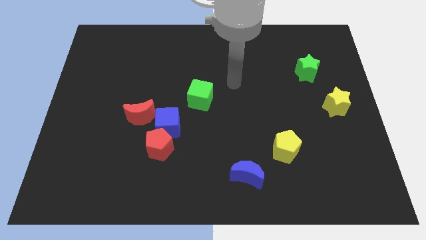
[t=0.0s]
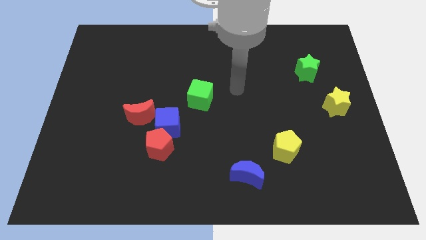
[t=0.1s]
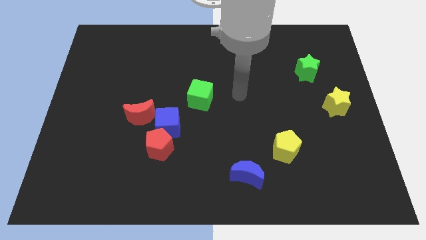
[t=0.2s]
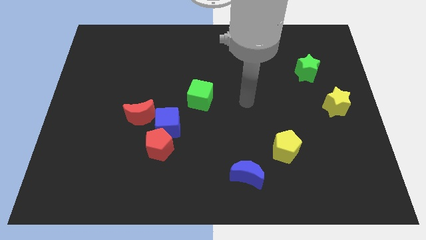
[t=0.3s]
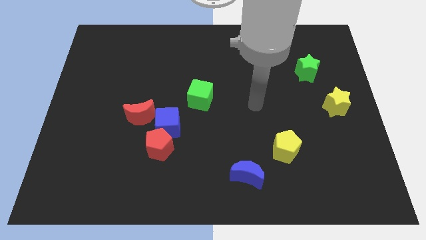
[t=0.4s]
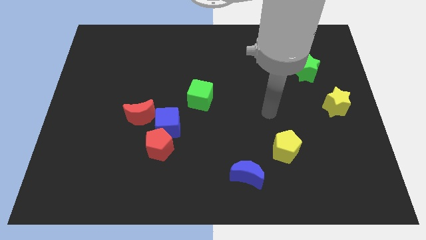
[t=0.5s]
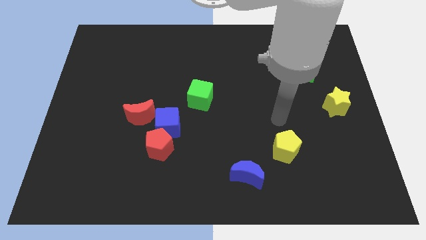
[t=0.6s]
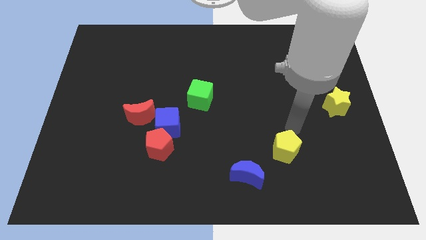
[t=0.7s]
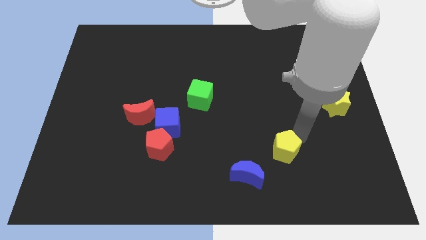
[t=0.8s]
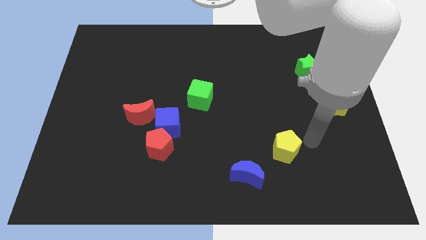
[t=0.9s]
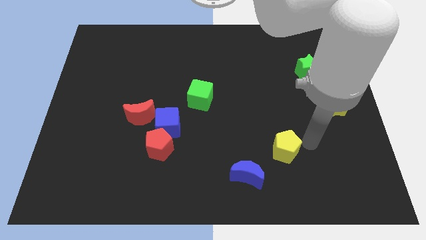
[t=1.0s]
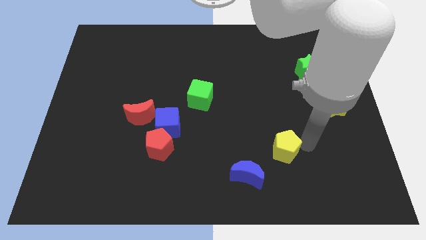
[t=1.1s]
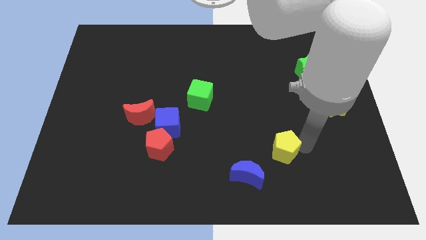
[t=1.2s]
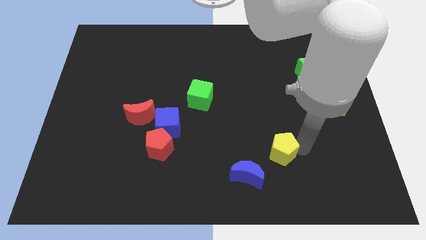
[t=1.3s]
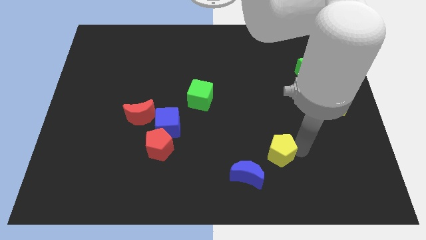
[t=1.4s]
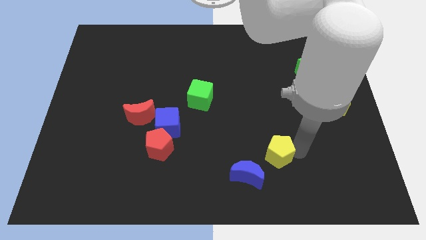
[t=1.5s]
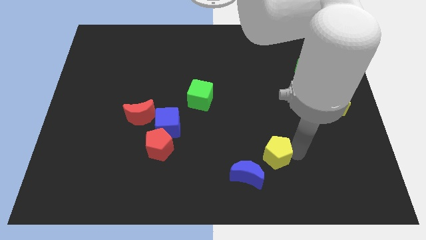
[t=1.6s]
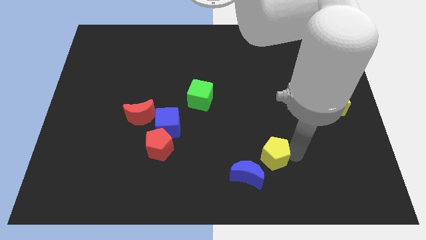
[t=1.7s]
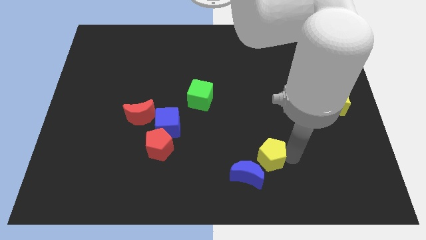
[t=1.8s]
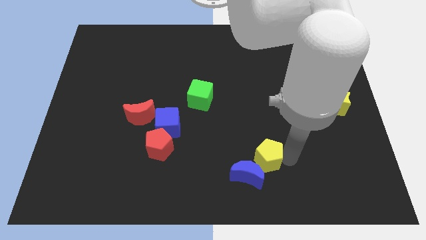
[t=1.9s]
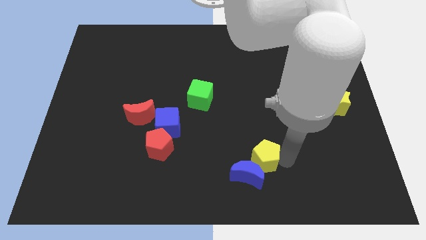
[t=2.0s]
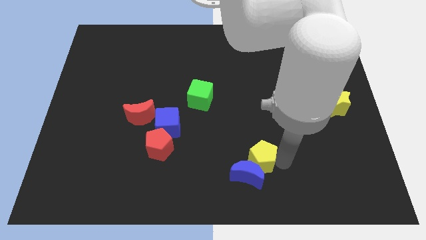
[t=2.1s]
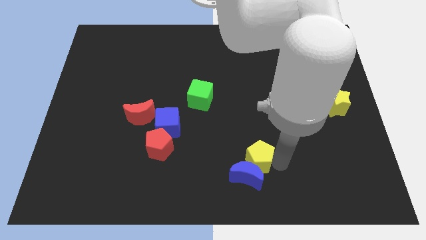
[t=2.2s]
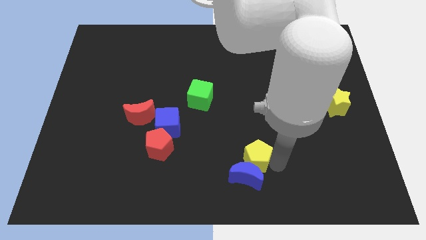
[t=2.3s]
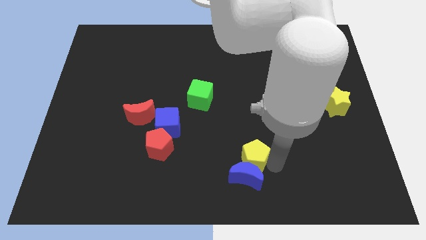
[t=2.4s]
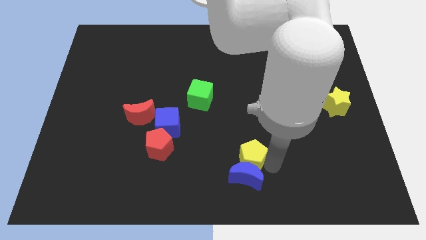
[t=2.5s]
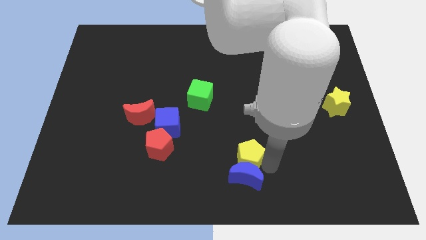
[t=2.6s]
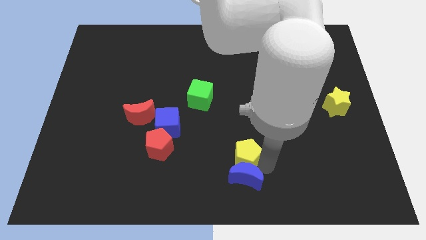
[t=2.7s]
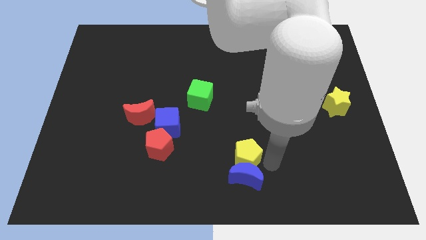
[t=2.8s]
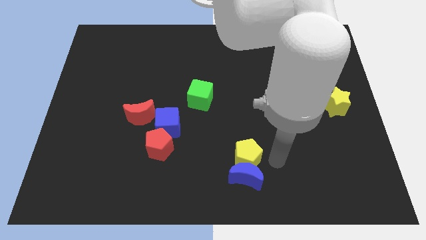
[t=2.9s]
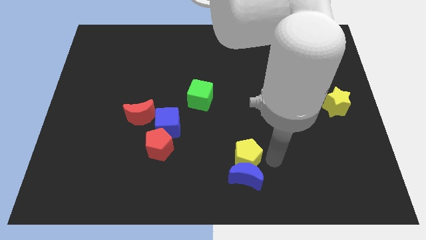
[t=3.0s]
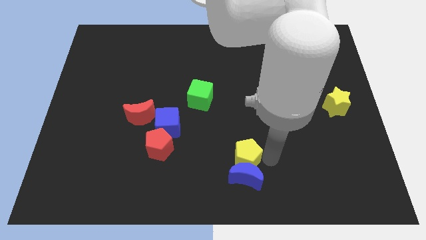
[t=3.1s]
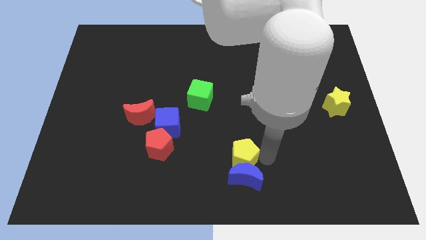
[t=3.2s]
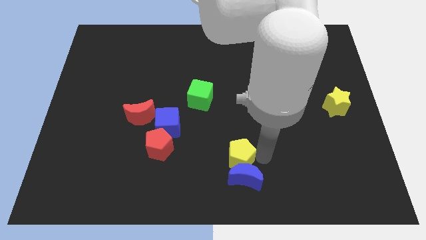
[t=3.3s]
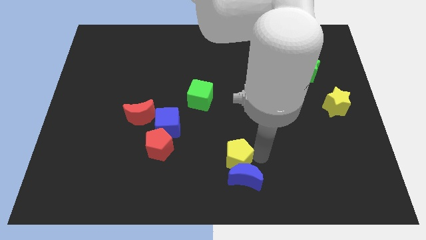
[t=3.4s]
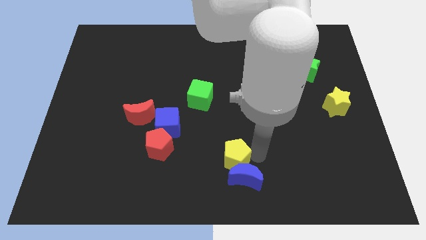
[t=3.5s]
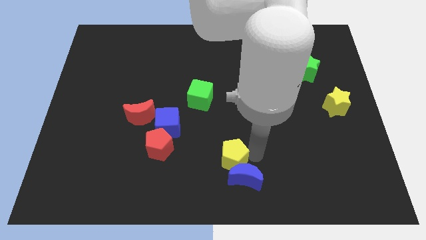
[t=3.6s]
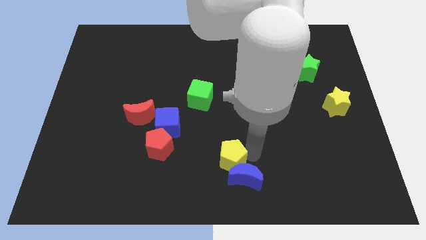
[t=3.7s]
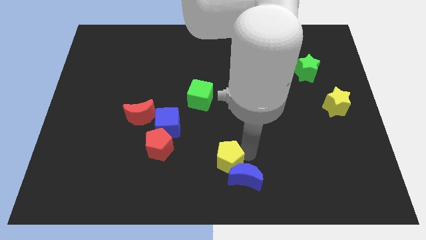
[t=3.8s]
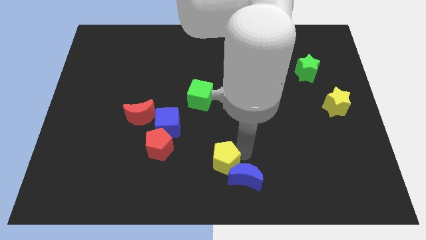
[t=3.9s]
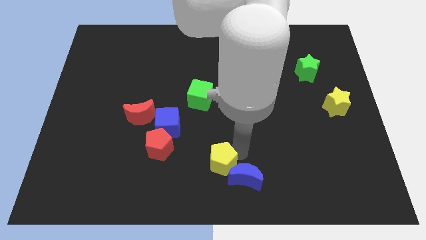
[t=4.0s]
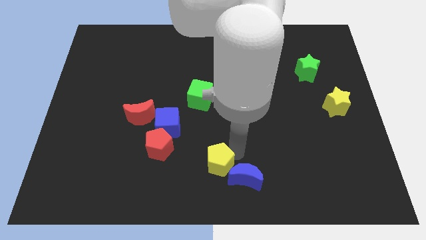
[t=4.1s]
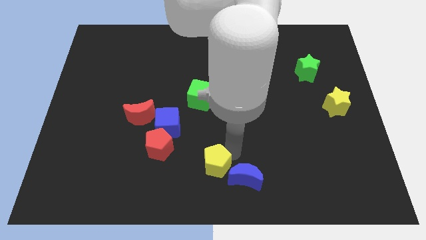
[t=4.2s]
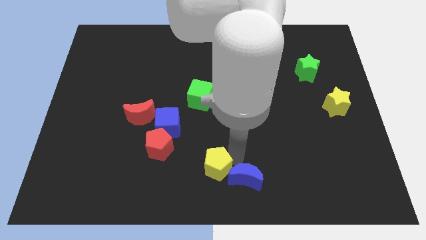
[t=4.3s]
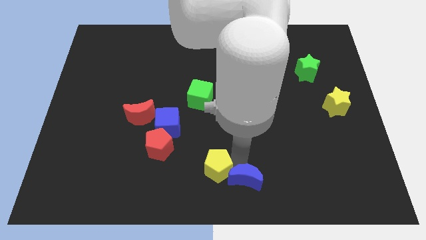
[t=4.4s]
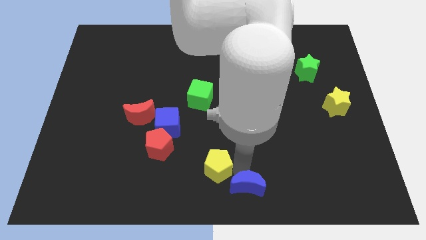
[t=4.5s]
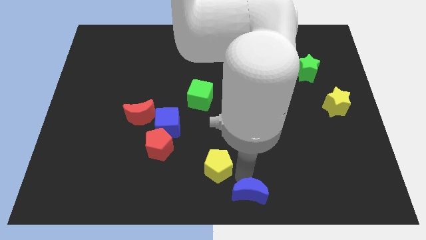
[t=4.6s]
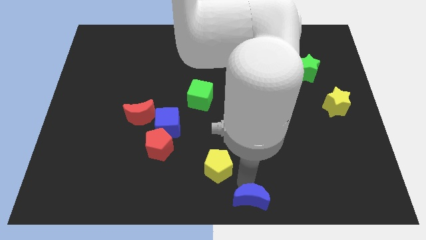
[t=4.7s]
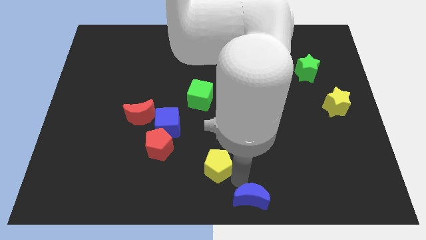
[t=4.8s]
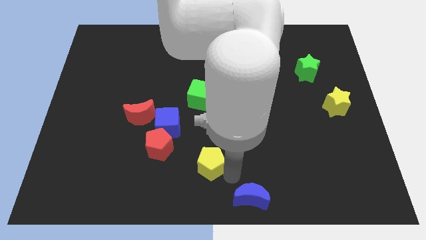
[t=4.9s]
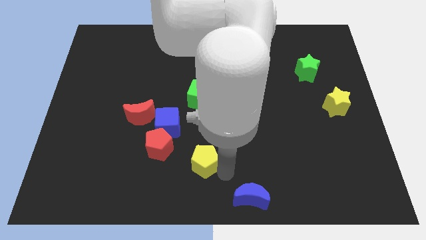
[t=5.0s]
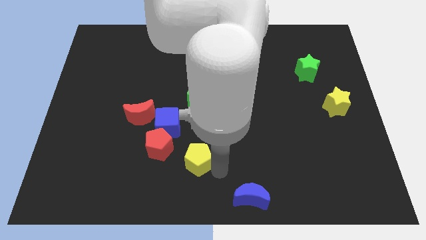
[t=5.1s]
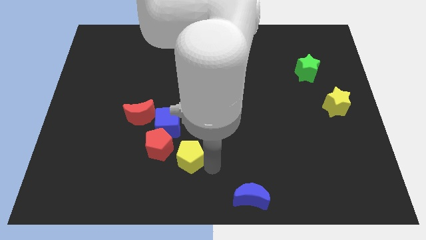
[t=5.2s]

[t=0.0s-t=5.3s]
push the yellow pentagon to the left

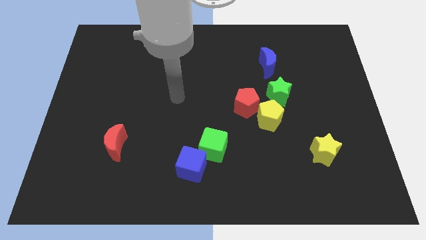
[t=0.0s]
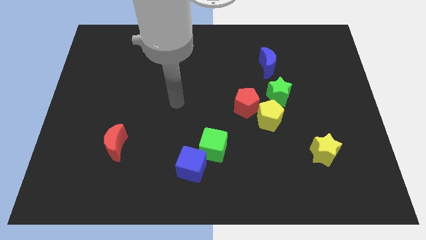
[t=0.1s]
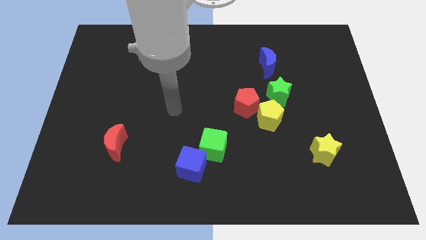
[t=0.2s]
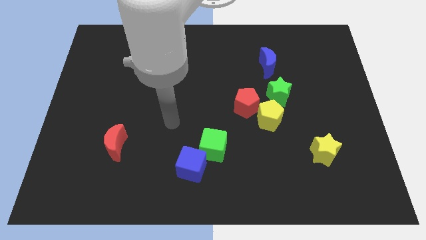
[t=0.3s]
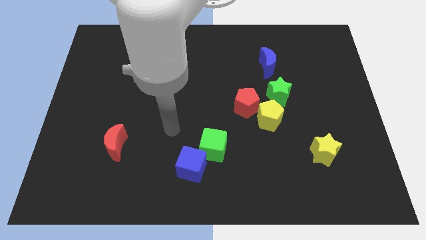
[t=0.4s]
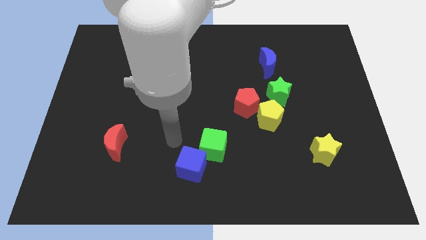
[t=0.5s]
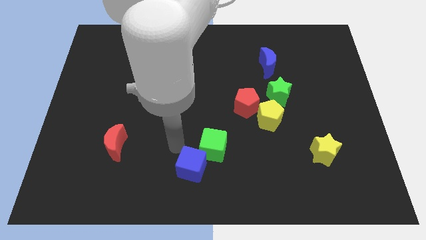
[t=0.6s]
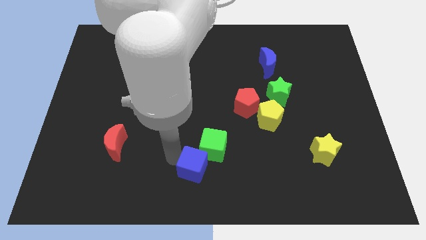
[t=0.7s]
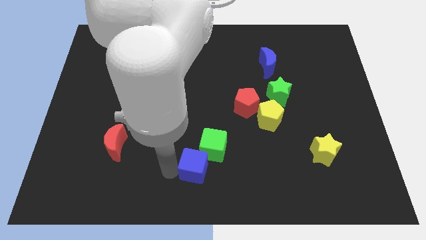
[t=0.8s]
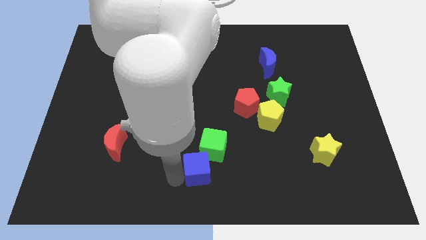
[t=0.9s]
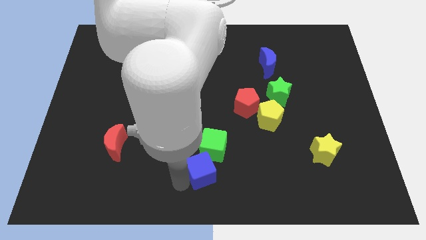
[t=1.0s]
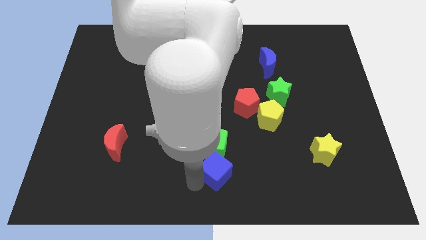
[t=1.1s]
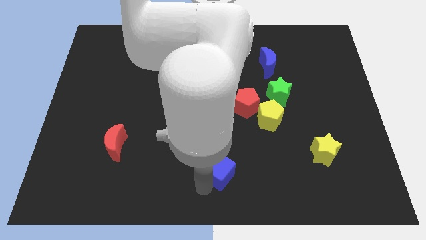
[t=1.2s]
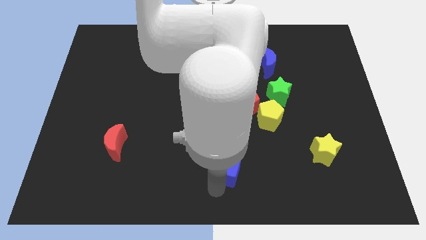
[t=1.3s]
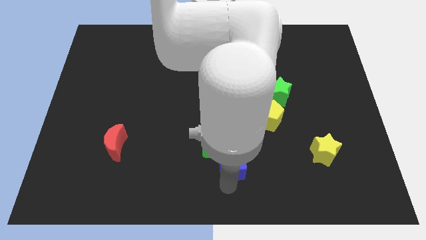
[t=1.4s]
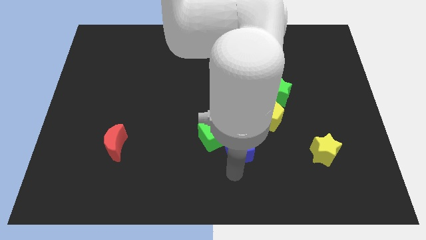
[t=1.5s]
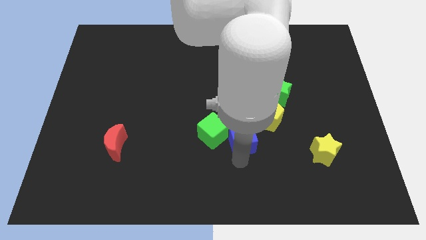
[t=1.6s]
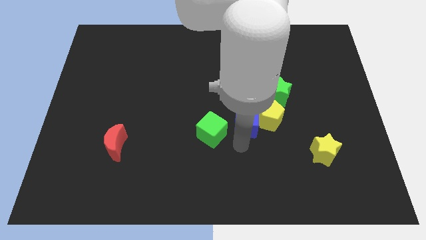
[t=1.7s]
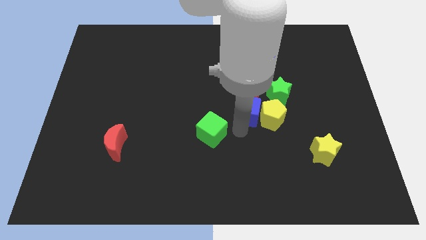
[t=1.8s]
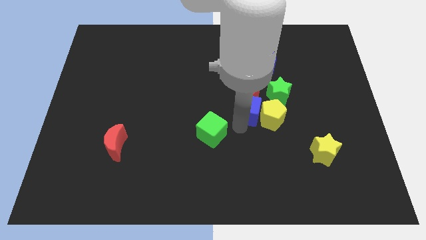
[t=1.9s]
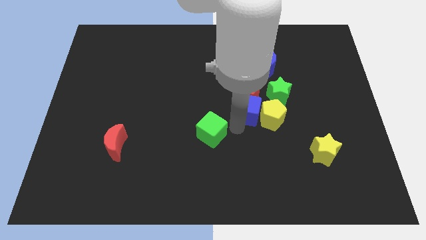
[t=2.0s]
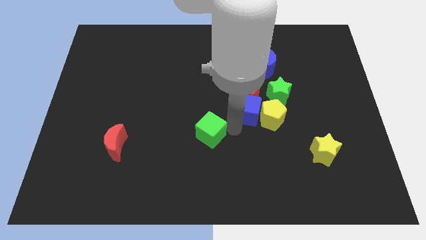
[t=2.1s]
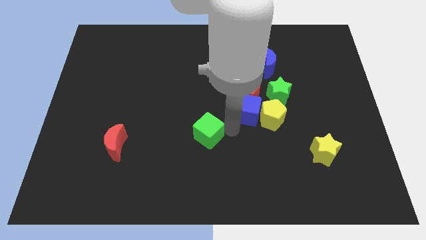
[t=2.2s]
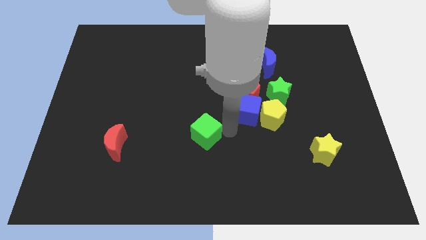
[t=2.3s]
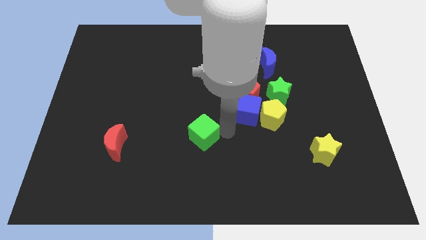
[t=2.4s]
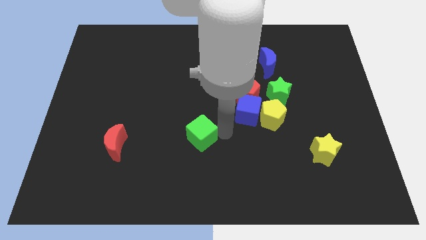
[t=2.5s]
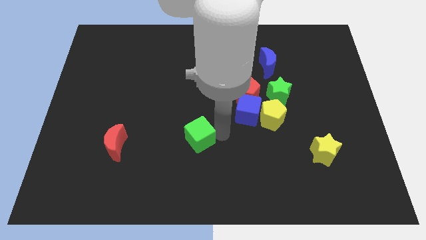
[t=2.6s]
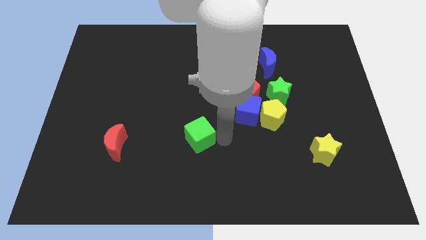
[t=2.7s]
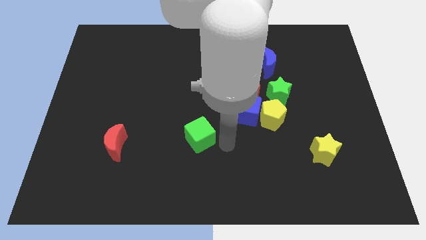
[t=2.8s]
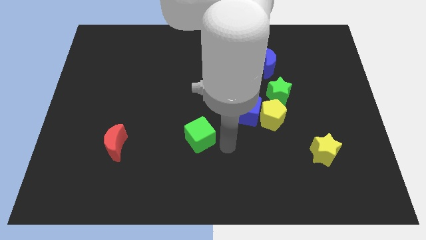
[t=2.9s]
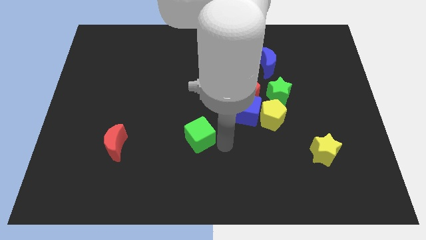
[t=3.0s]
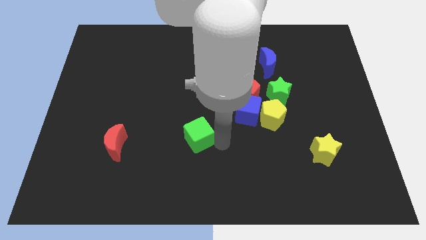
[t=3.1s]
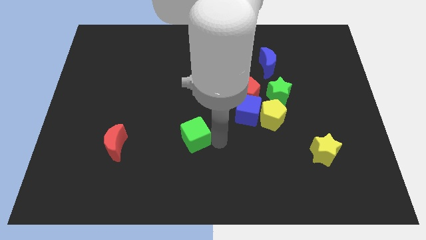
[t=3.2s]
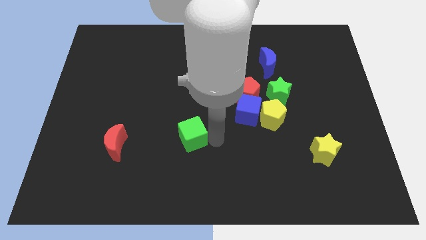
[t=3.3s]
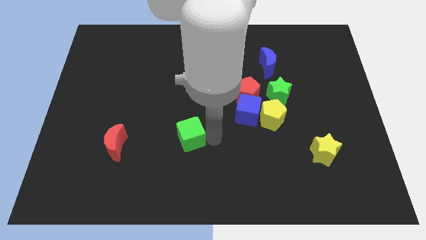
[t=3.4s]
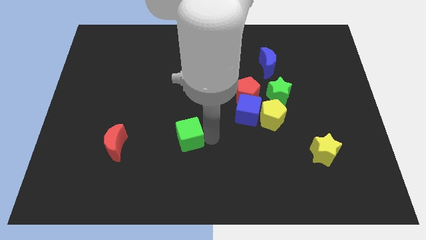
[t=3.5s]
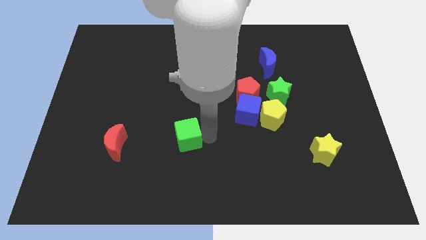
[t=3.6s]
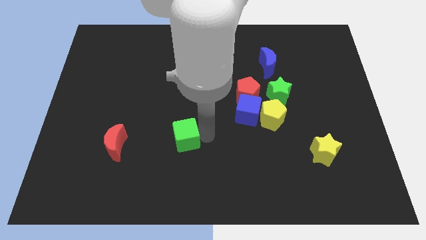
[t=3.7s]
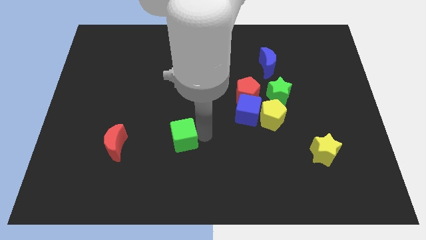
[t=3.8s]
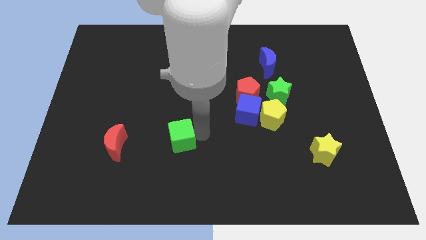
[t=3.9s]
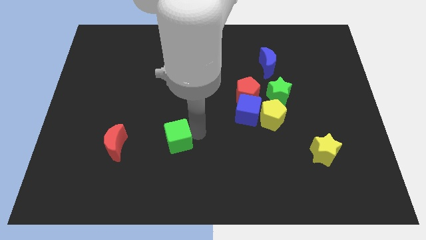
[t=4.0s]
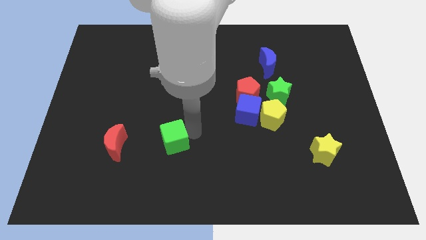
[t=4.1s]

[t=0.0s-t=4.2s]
push the green cube slightly diagonally up and left
